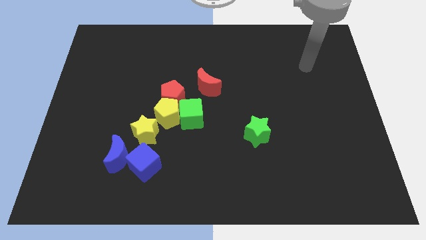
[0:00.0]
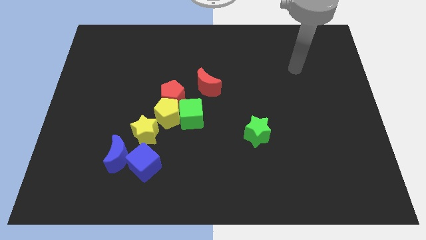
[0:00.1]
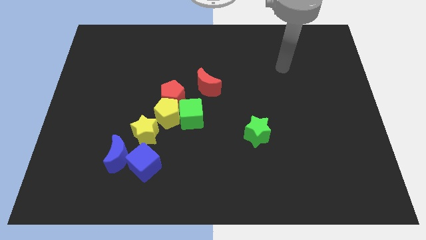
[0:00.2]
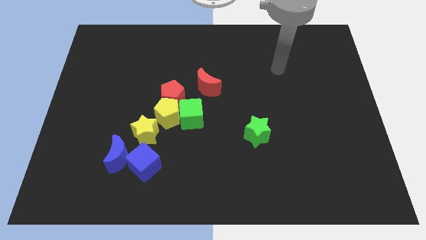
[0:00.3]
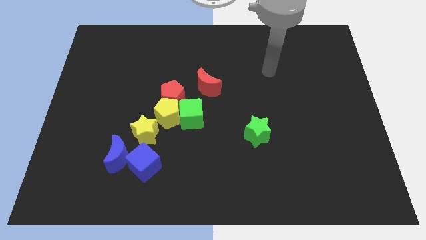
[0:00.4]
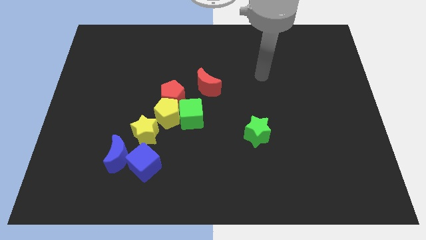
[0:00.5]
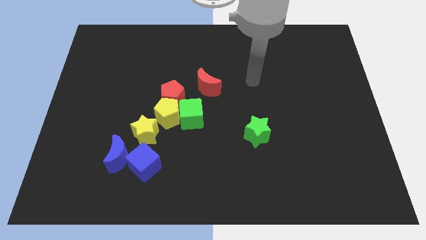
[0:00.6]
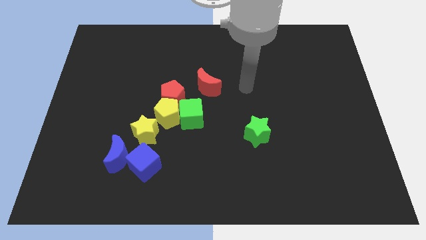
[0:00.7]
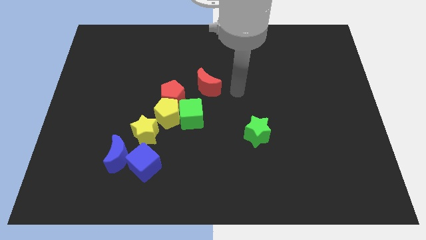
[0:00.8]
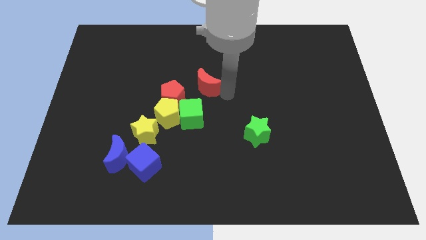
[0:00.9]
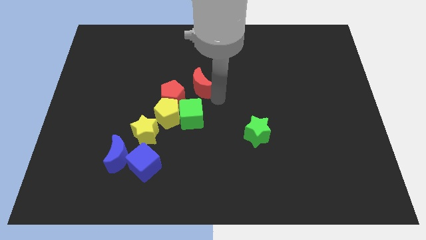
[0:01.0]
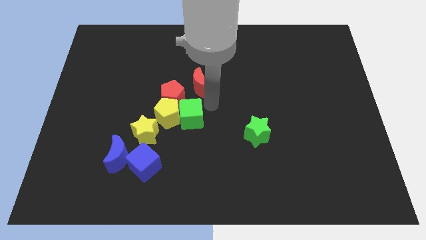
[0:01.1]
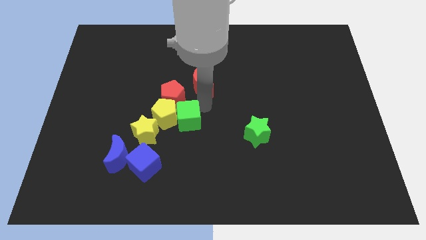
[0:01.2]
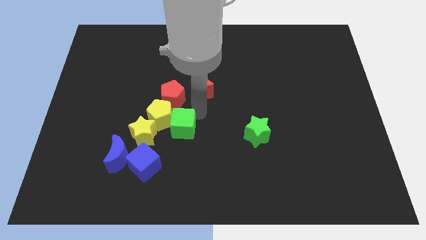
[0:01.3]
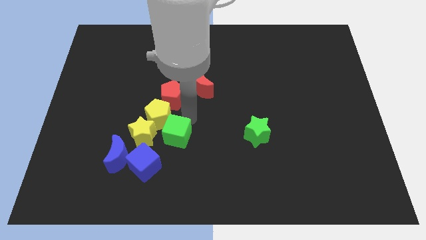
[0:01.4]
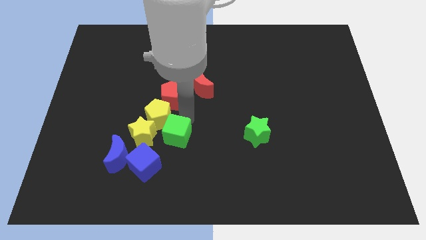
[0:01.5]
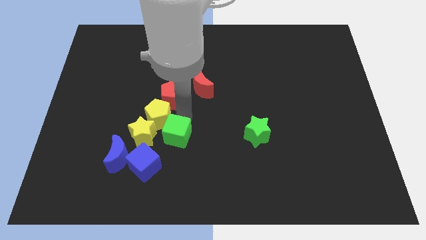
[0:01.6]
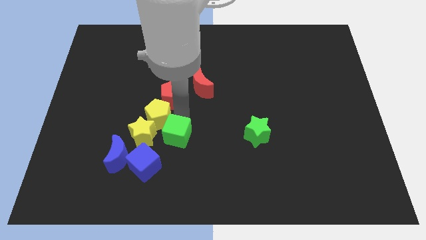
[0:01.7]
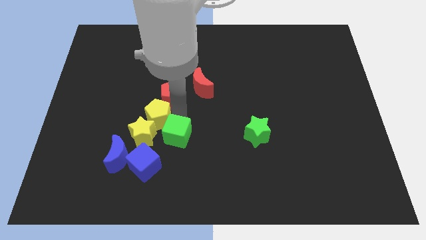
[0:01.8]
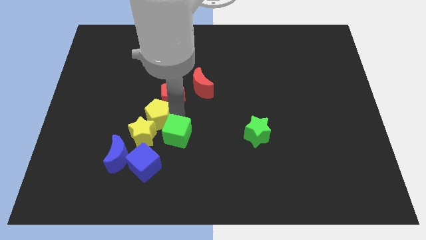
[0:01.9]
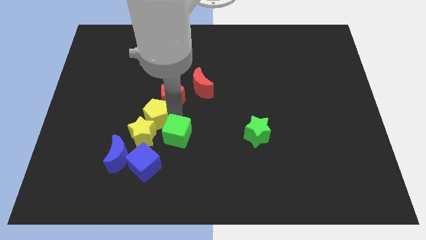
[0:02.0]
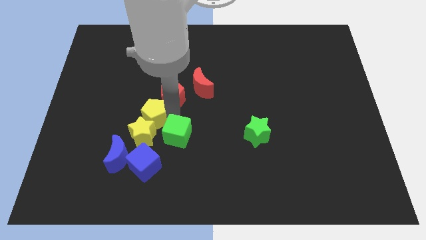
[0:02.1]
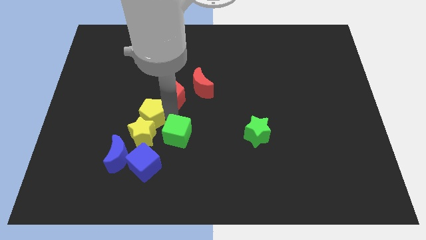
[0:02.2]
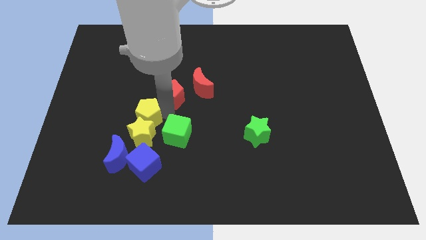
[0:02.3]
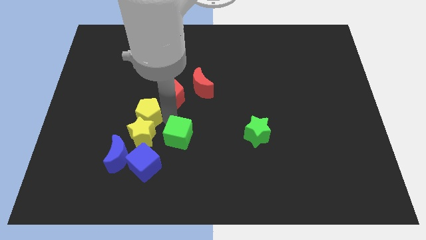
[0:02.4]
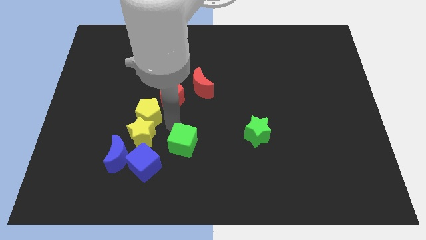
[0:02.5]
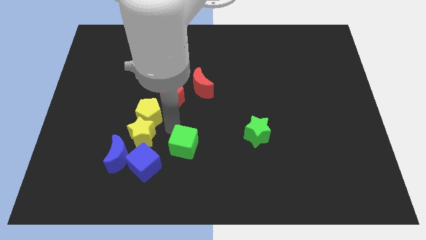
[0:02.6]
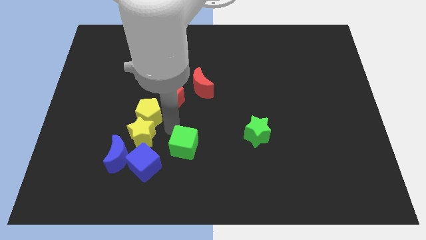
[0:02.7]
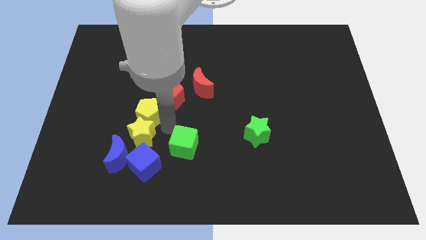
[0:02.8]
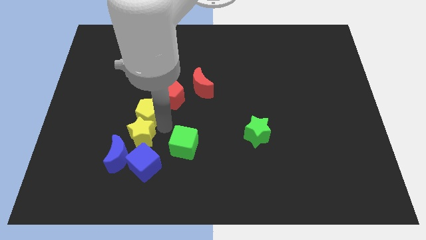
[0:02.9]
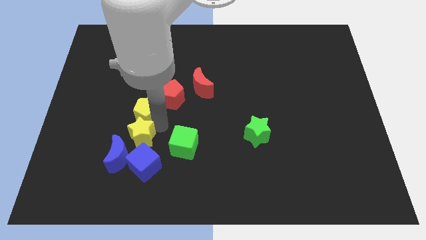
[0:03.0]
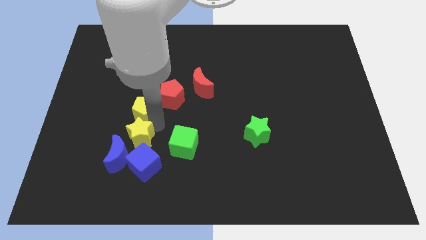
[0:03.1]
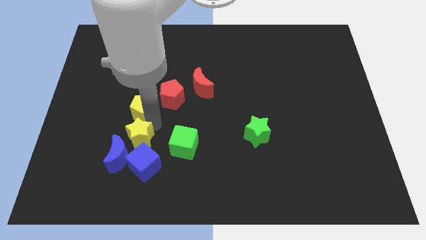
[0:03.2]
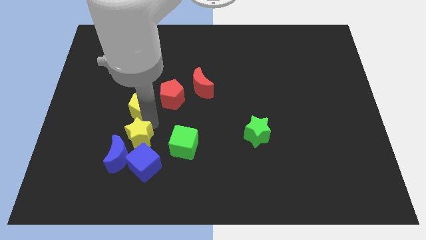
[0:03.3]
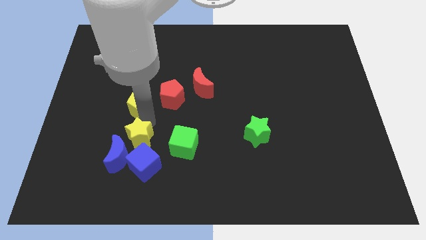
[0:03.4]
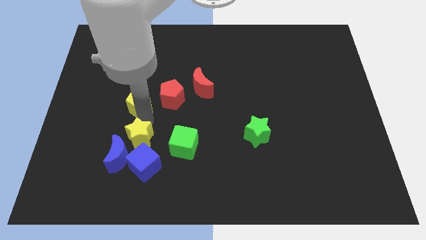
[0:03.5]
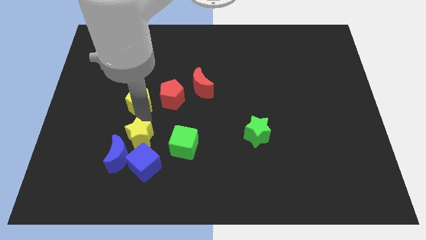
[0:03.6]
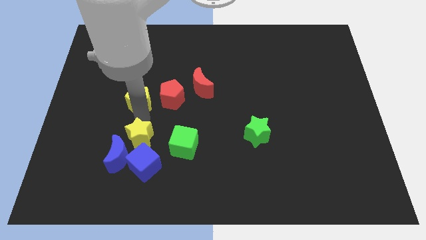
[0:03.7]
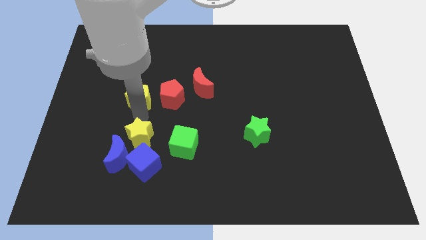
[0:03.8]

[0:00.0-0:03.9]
move the yellow pentagon away from the red pentagon, green cube, and yellow star

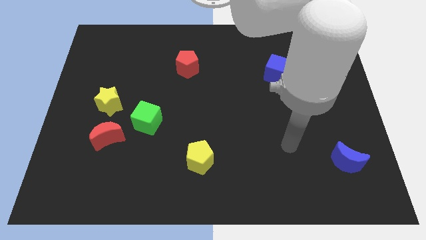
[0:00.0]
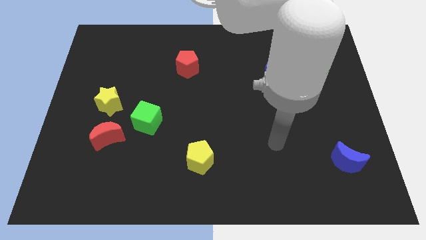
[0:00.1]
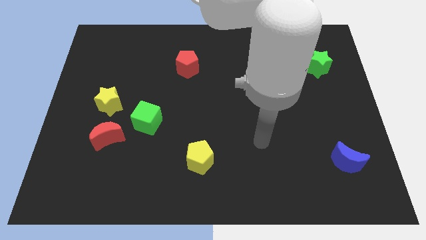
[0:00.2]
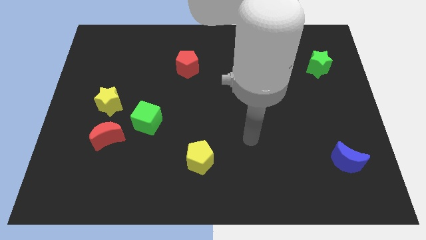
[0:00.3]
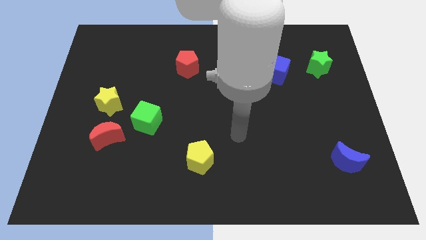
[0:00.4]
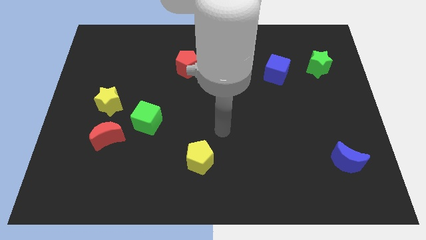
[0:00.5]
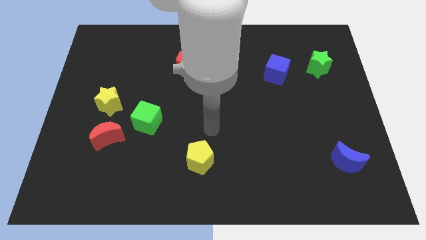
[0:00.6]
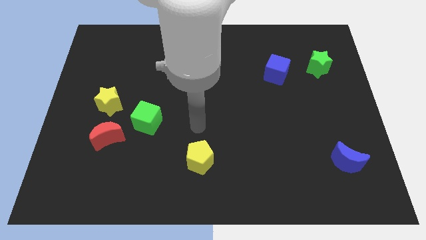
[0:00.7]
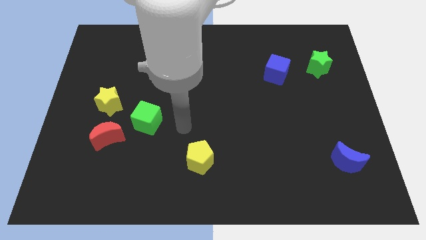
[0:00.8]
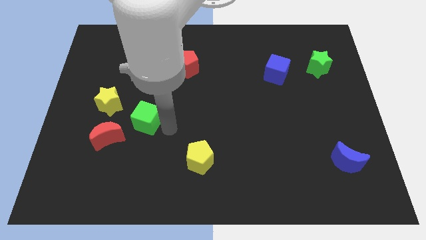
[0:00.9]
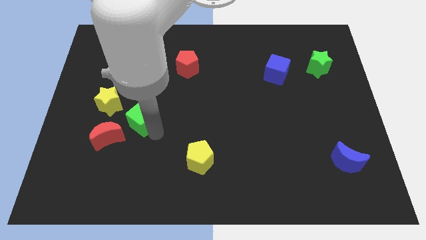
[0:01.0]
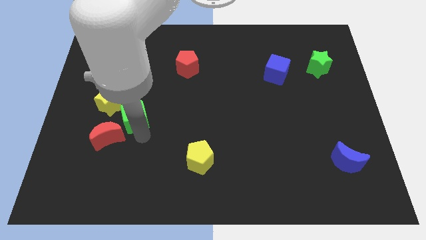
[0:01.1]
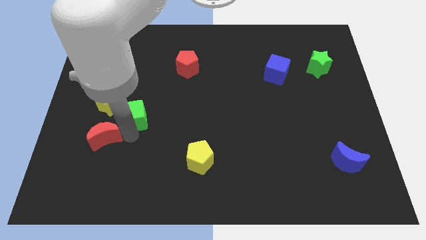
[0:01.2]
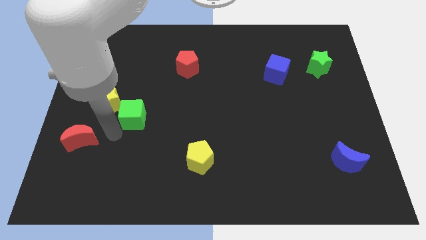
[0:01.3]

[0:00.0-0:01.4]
move the green cube away from the red moon

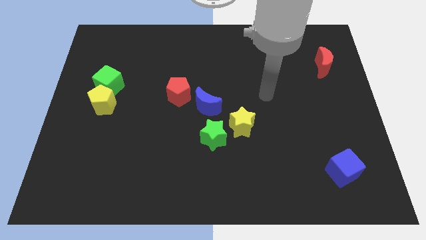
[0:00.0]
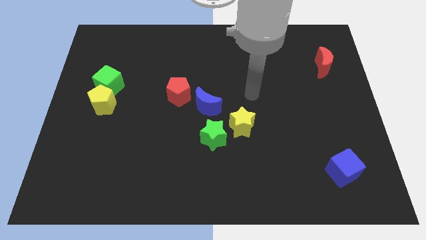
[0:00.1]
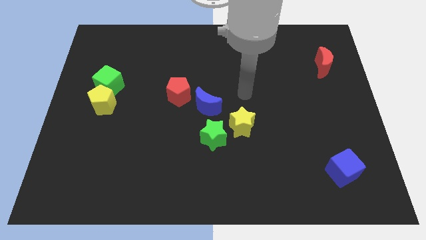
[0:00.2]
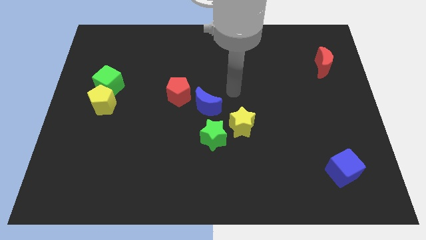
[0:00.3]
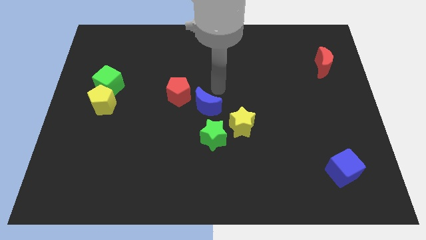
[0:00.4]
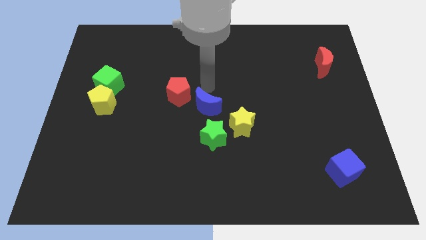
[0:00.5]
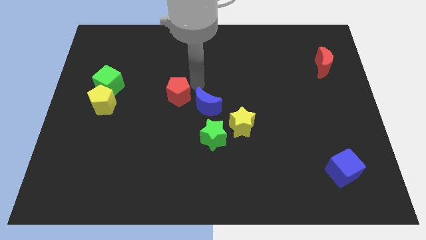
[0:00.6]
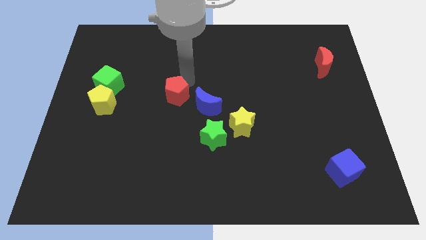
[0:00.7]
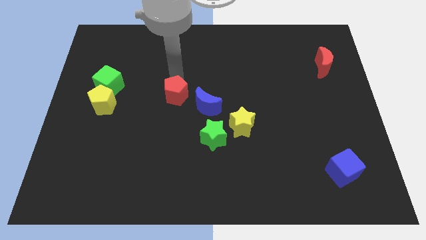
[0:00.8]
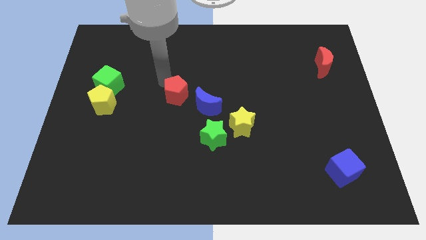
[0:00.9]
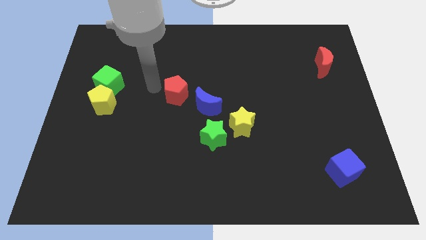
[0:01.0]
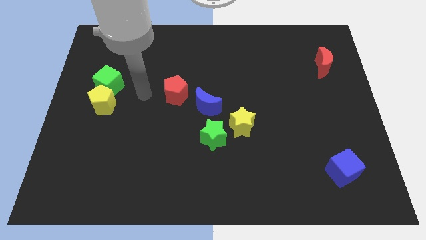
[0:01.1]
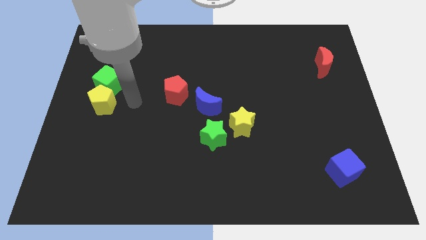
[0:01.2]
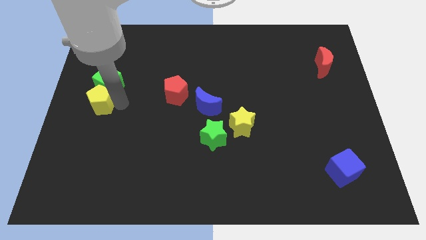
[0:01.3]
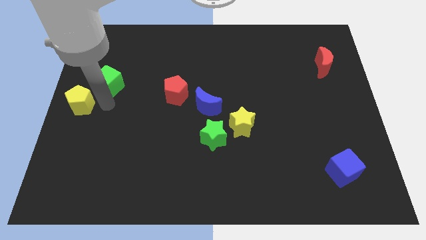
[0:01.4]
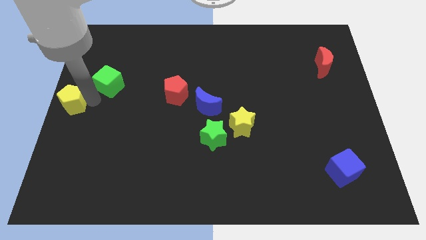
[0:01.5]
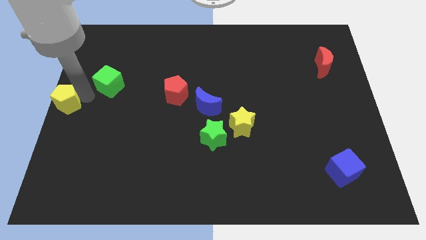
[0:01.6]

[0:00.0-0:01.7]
separate the green cube from the yellow pentagon

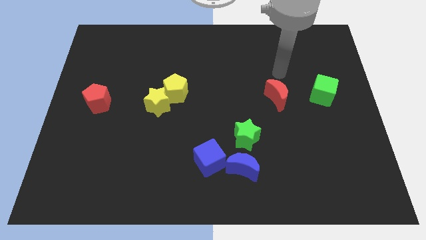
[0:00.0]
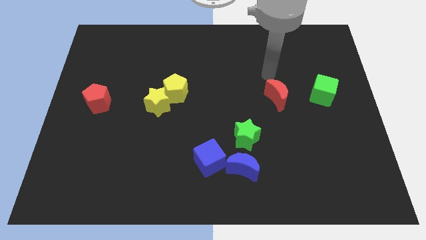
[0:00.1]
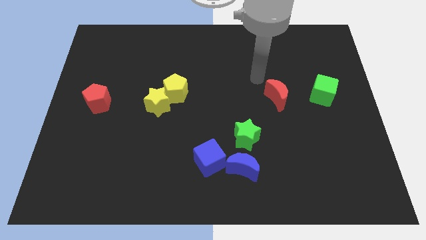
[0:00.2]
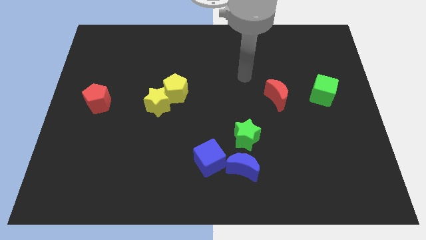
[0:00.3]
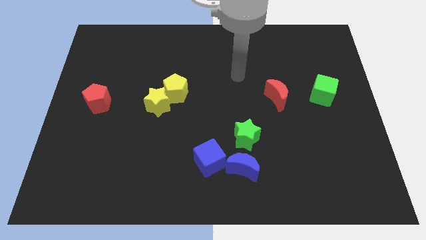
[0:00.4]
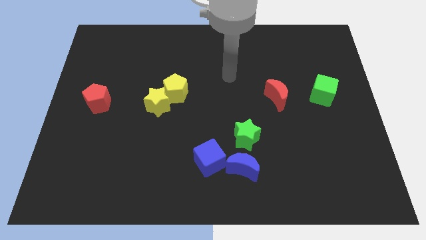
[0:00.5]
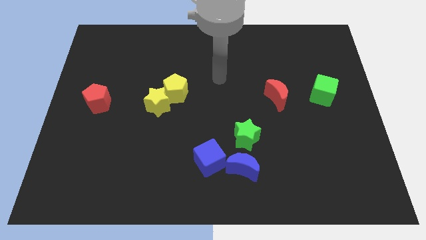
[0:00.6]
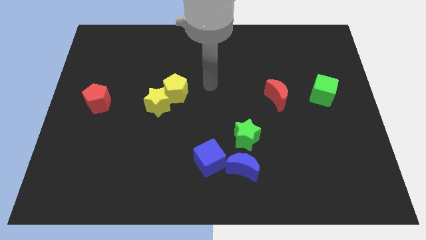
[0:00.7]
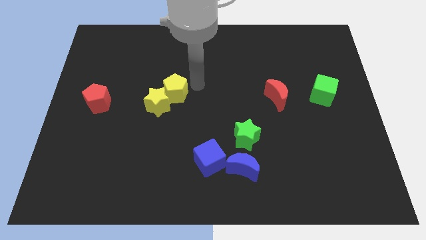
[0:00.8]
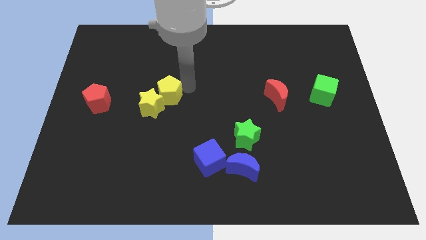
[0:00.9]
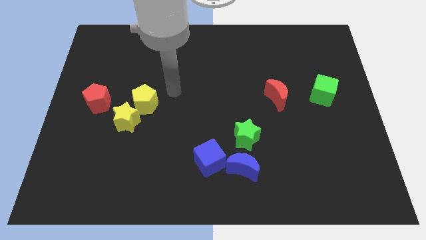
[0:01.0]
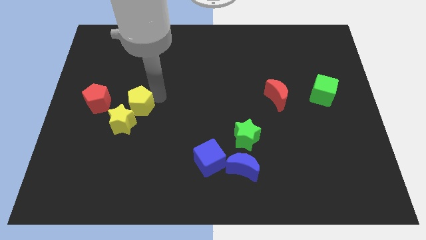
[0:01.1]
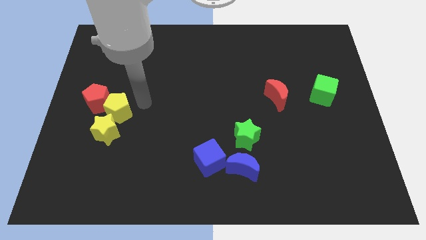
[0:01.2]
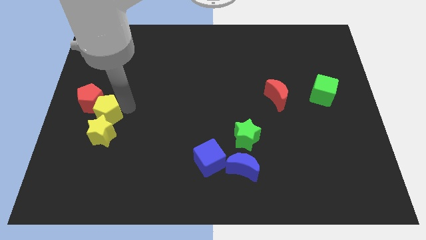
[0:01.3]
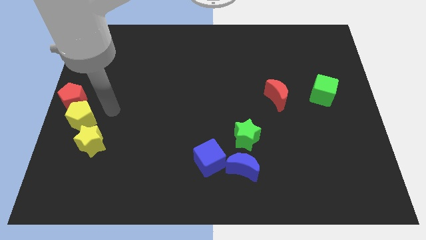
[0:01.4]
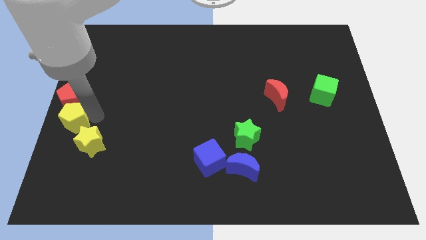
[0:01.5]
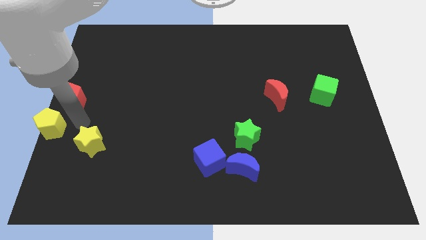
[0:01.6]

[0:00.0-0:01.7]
separate the yellow star from the yellow pentagon

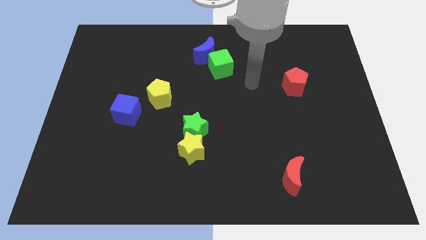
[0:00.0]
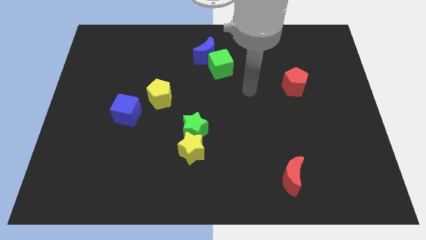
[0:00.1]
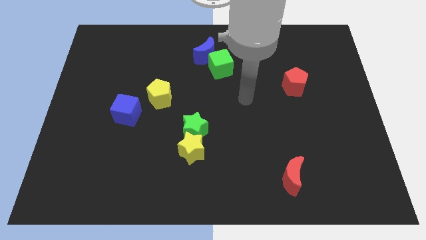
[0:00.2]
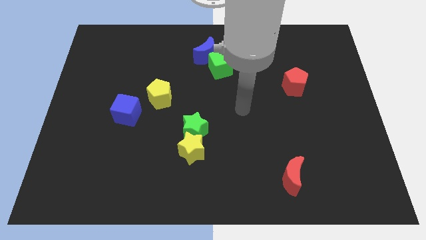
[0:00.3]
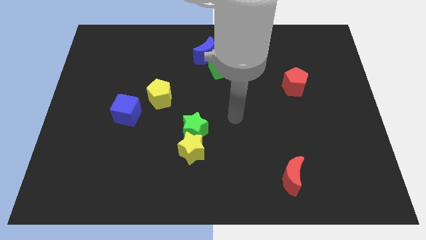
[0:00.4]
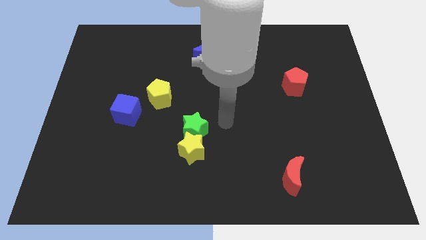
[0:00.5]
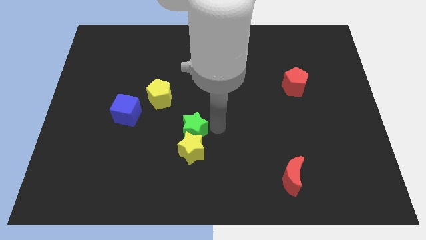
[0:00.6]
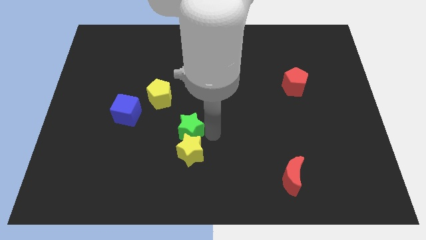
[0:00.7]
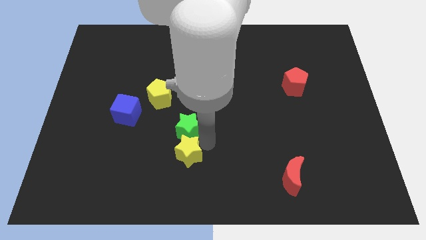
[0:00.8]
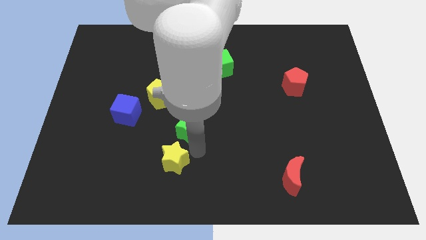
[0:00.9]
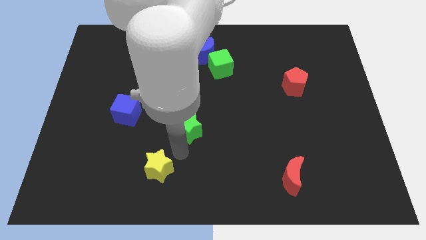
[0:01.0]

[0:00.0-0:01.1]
pull the green star apart from the yellow star
